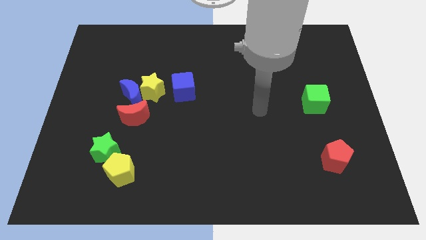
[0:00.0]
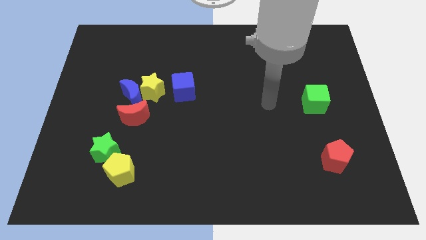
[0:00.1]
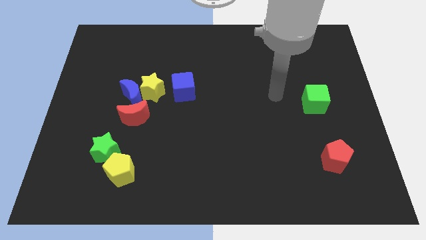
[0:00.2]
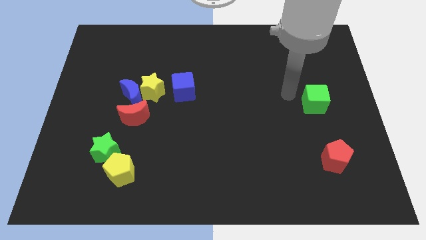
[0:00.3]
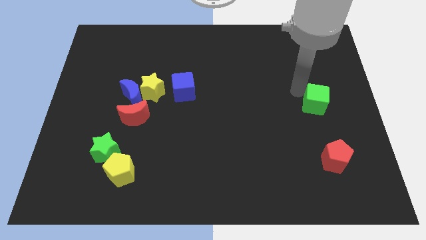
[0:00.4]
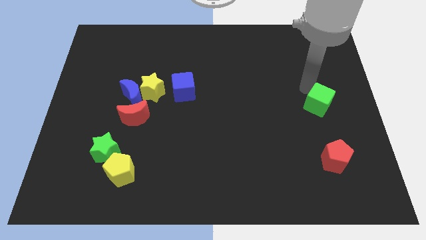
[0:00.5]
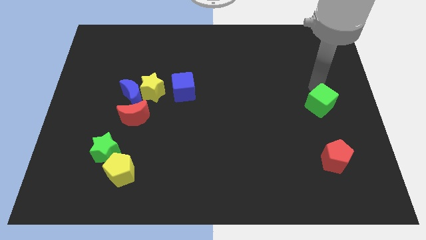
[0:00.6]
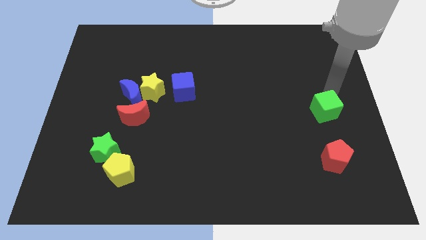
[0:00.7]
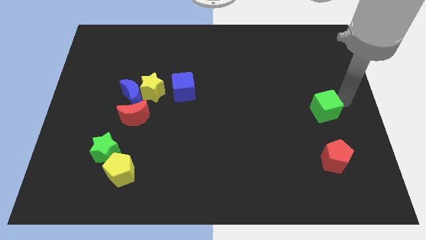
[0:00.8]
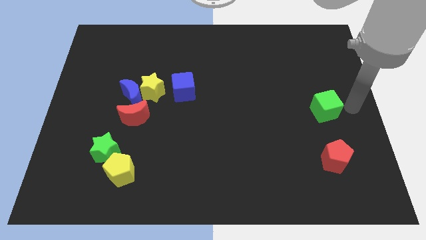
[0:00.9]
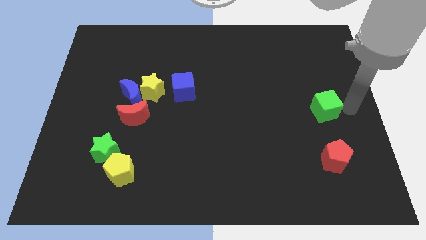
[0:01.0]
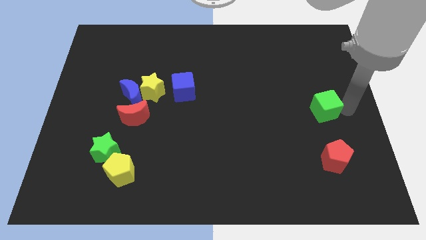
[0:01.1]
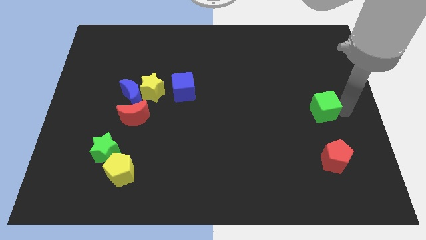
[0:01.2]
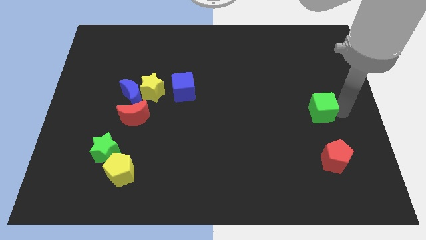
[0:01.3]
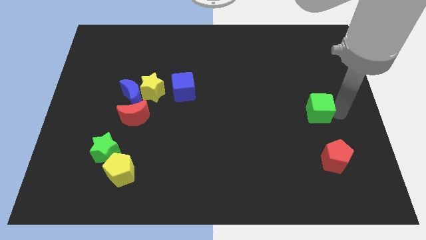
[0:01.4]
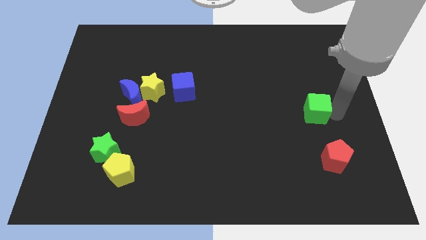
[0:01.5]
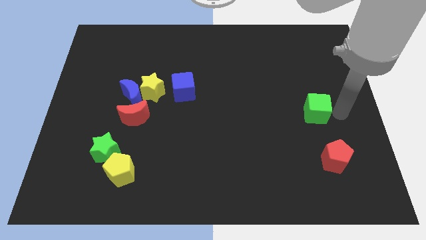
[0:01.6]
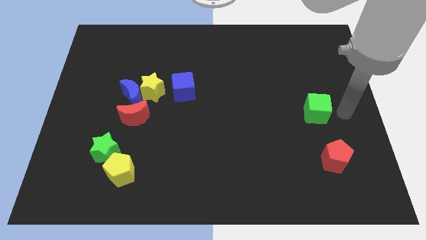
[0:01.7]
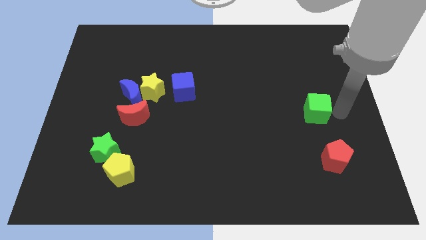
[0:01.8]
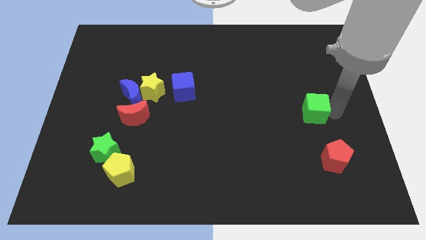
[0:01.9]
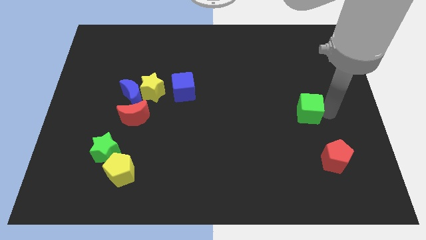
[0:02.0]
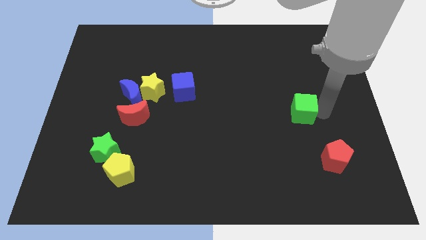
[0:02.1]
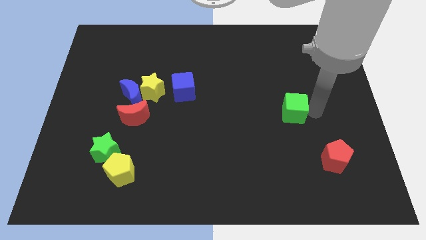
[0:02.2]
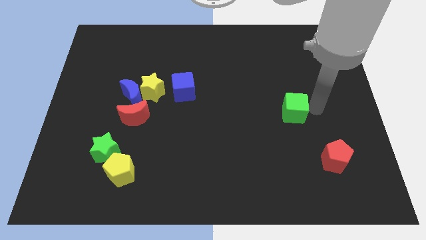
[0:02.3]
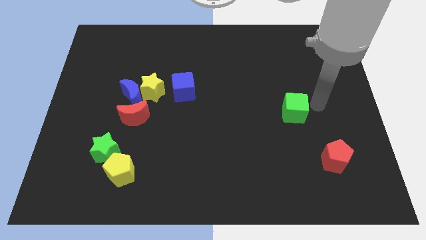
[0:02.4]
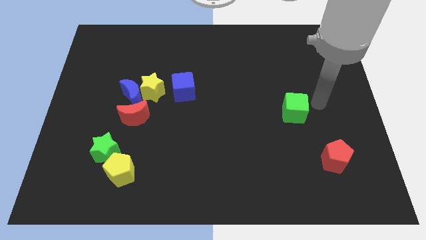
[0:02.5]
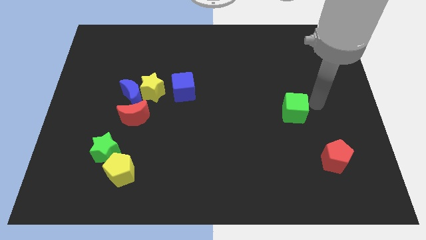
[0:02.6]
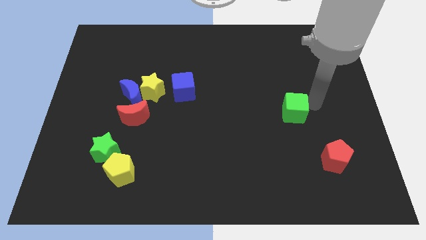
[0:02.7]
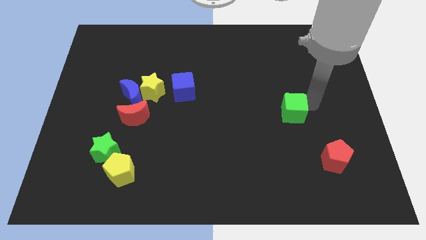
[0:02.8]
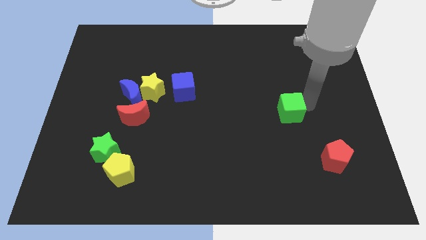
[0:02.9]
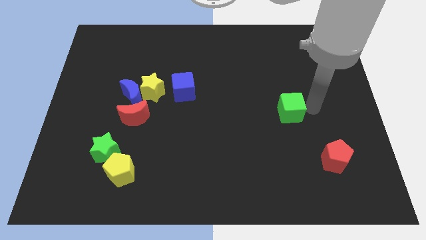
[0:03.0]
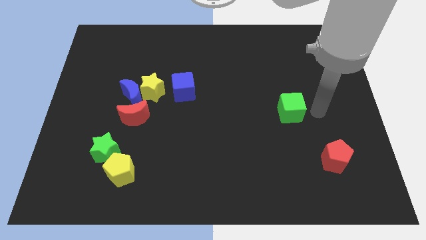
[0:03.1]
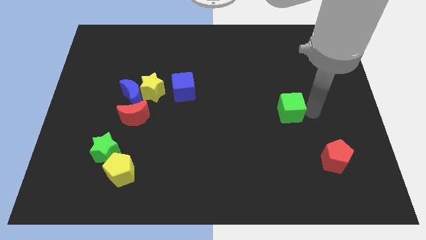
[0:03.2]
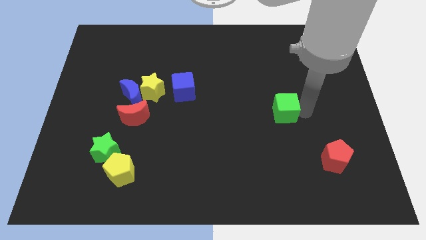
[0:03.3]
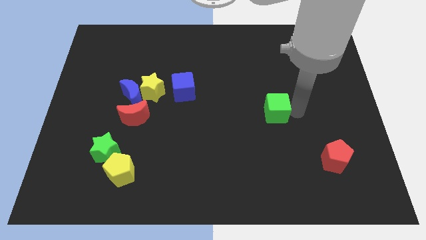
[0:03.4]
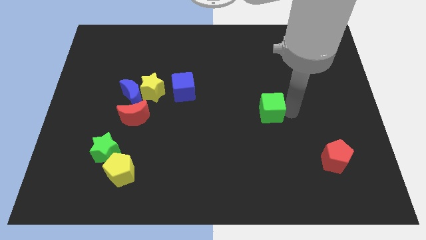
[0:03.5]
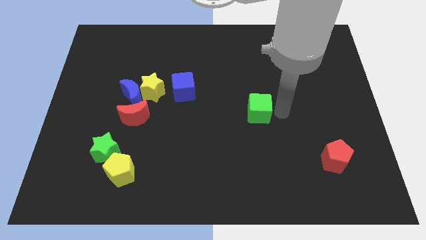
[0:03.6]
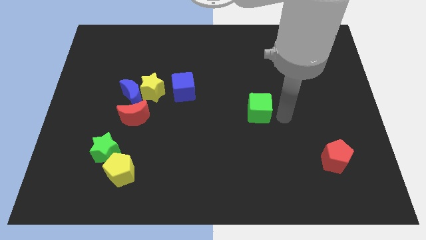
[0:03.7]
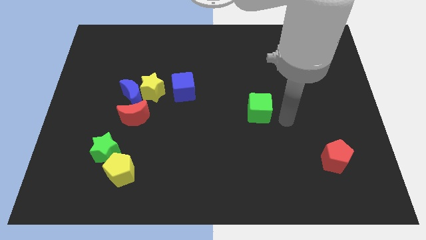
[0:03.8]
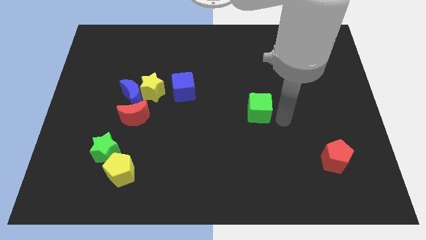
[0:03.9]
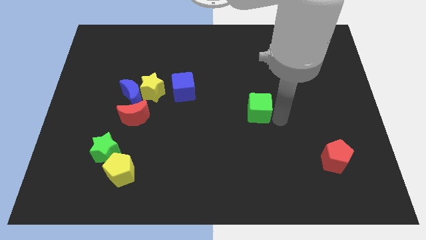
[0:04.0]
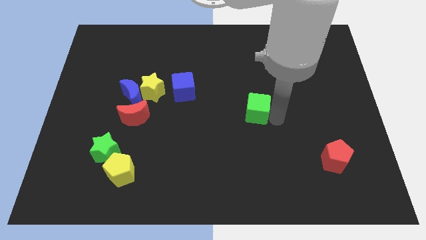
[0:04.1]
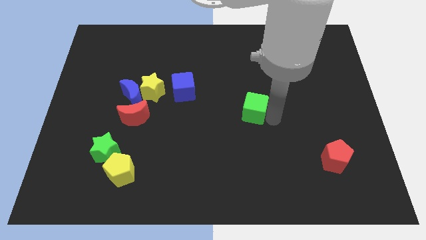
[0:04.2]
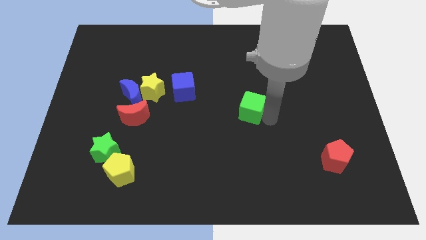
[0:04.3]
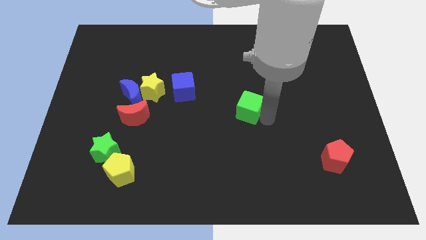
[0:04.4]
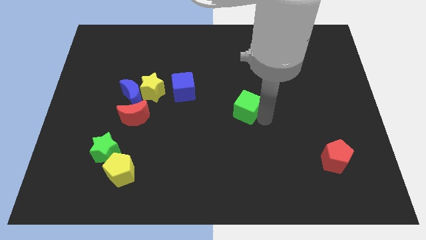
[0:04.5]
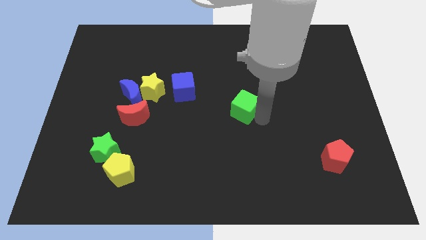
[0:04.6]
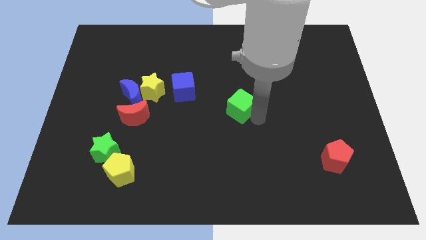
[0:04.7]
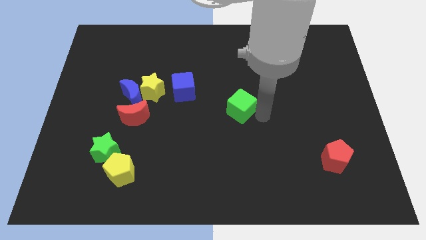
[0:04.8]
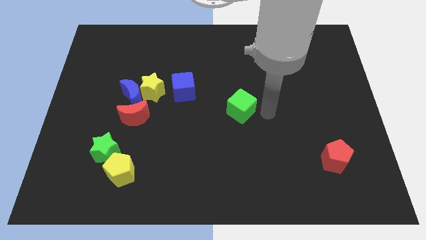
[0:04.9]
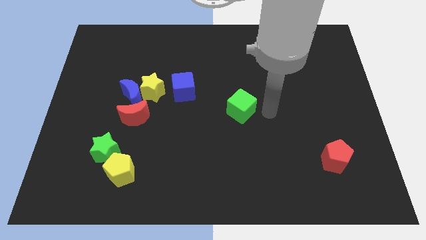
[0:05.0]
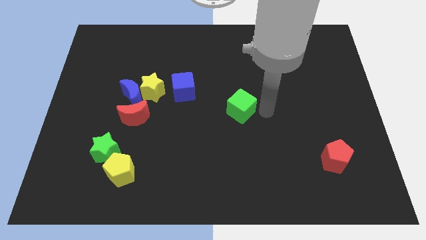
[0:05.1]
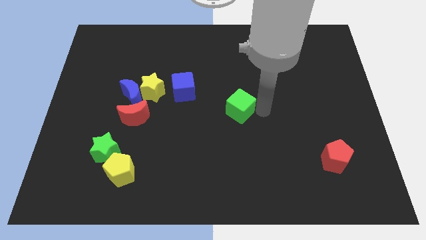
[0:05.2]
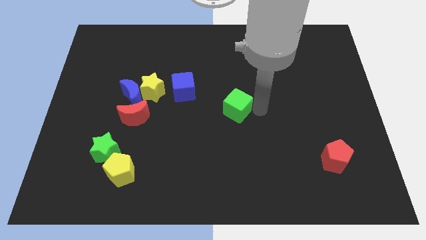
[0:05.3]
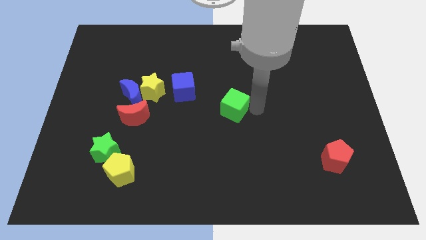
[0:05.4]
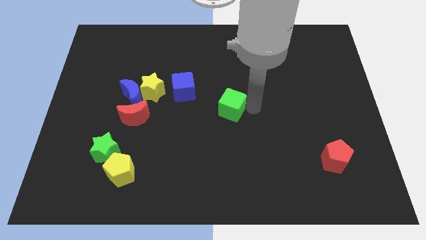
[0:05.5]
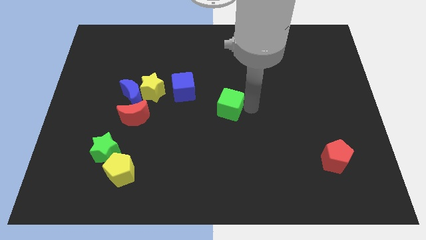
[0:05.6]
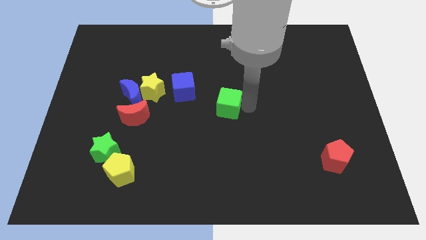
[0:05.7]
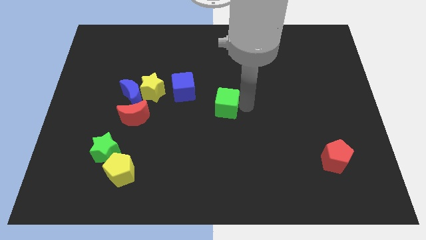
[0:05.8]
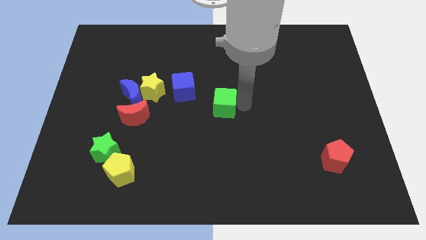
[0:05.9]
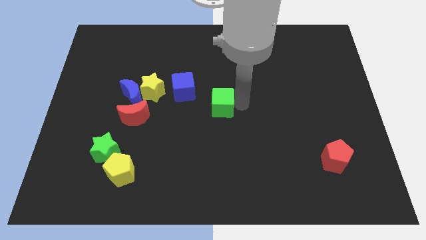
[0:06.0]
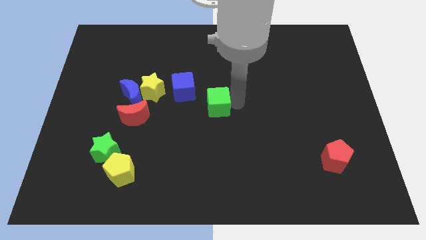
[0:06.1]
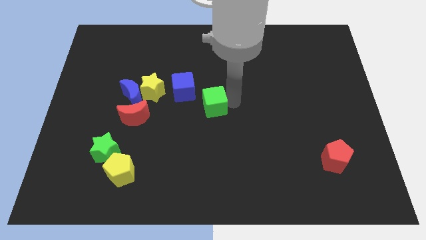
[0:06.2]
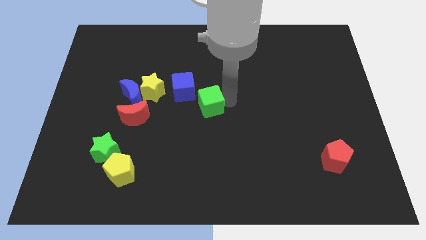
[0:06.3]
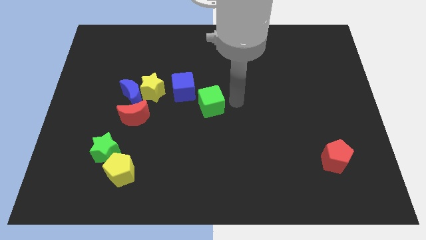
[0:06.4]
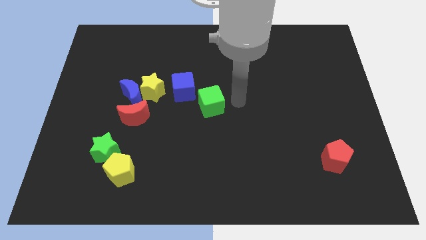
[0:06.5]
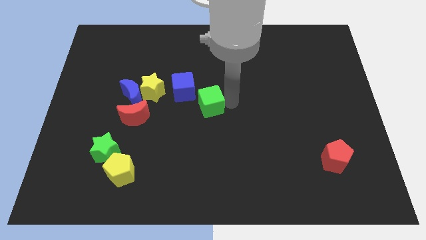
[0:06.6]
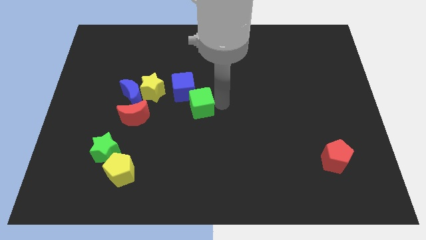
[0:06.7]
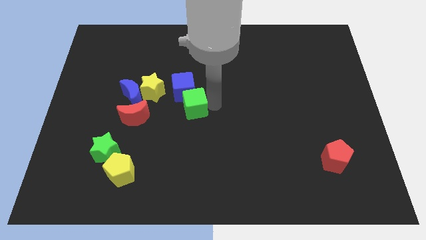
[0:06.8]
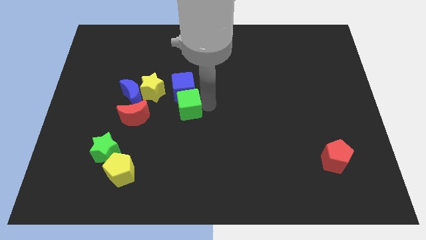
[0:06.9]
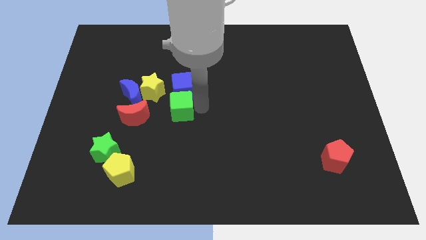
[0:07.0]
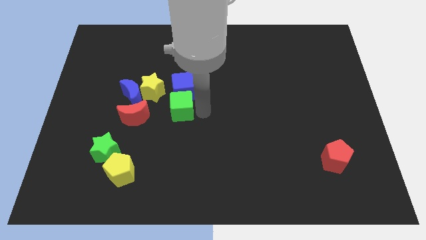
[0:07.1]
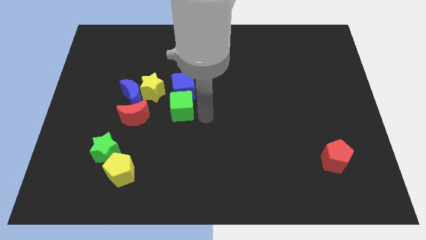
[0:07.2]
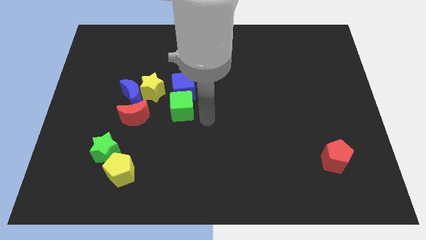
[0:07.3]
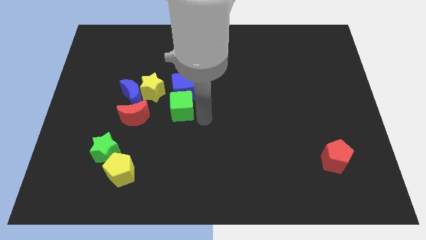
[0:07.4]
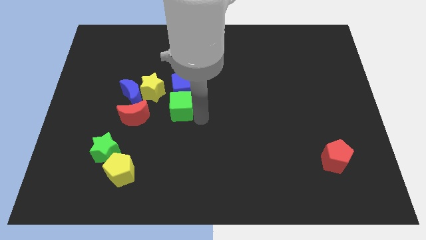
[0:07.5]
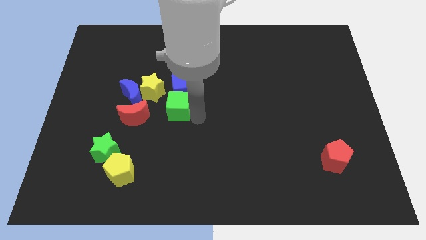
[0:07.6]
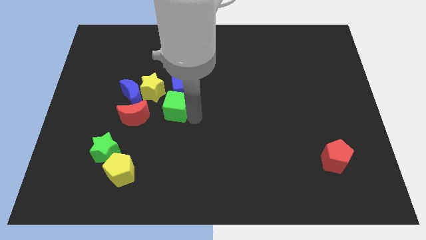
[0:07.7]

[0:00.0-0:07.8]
put the green cube diagonally up and to the right of the red moon

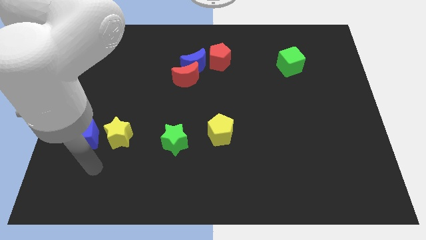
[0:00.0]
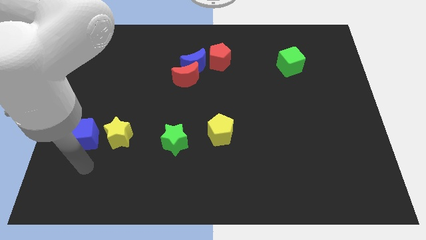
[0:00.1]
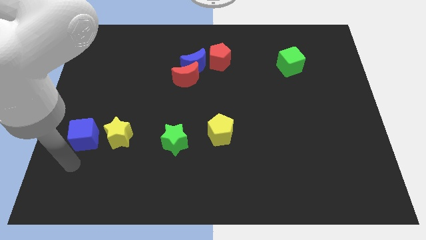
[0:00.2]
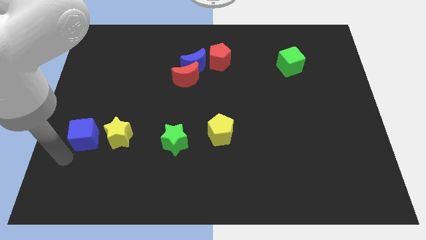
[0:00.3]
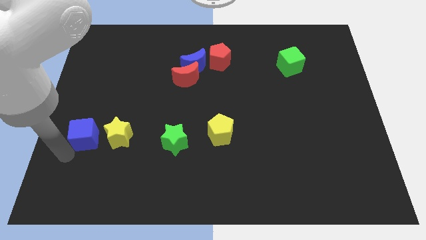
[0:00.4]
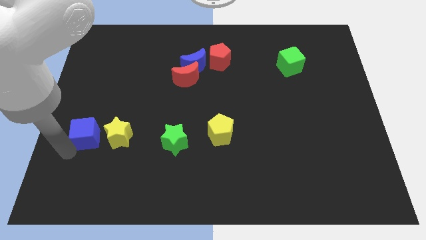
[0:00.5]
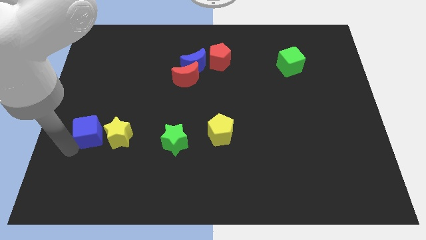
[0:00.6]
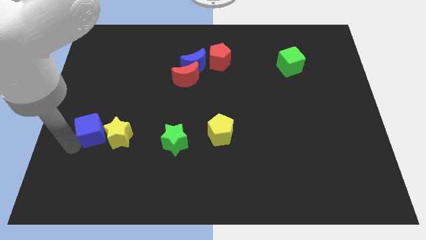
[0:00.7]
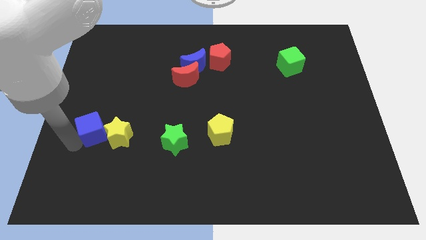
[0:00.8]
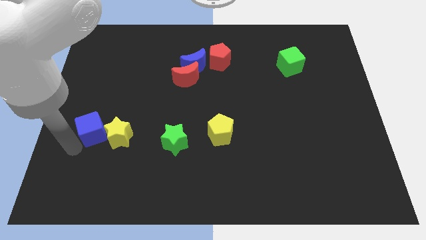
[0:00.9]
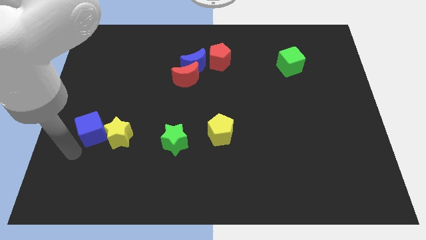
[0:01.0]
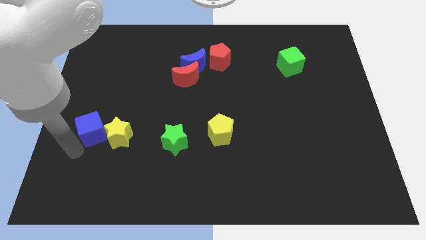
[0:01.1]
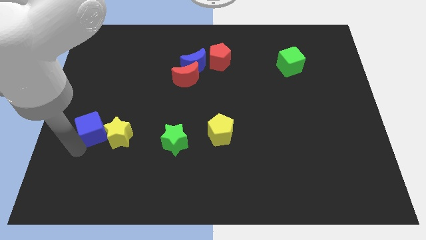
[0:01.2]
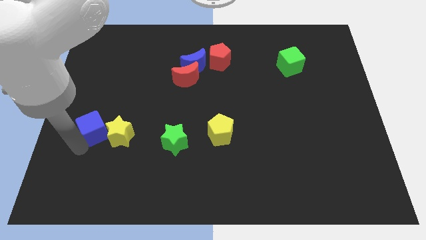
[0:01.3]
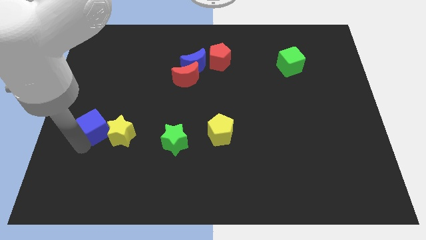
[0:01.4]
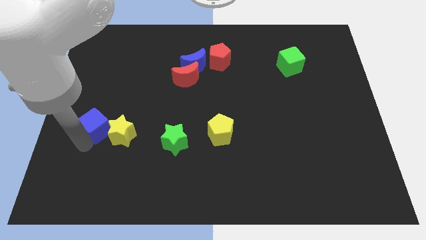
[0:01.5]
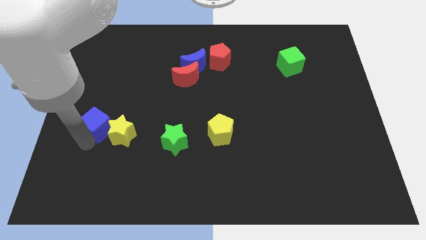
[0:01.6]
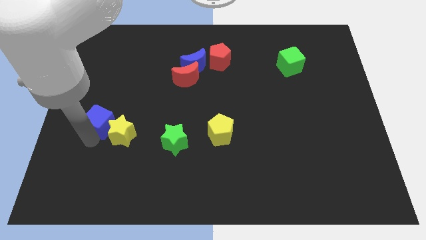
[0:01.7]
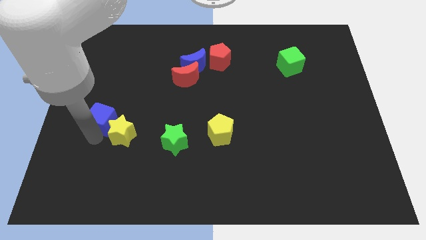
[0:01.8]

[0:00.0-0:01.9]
move the blue cube above the yellow star
